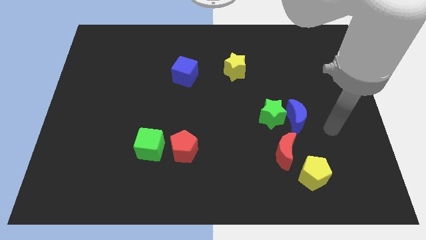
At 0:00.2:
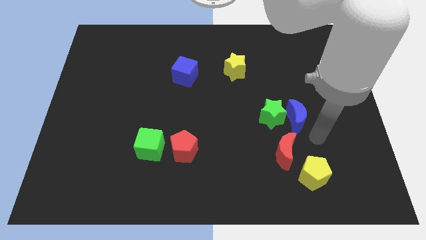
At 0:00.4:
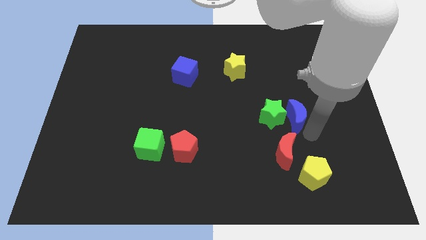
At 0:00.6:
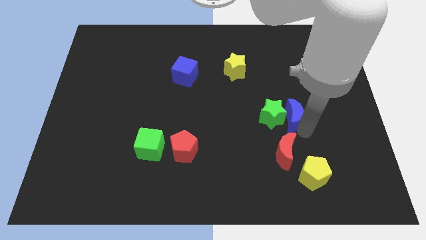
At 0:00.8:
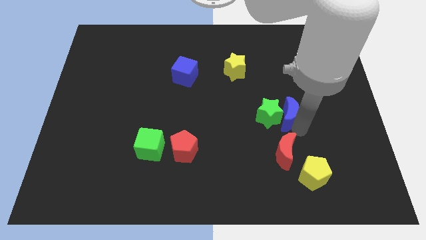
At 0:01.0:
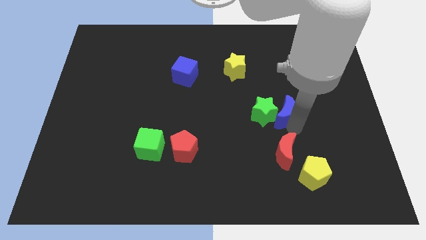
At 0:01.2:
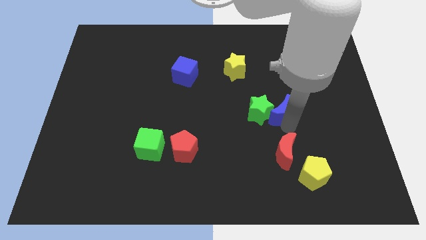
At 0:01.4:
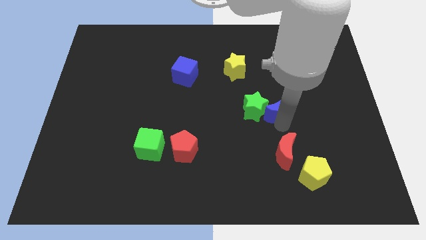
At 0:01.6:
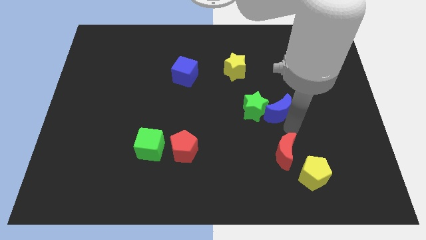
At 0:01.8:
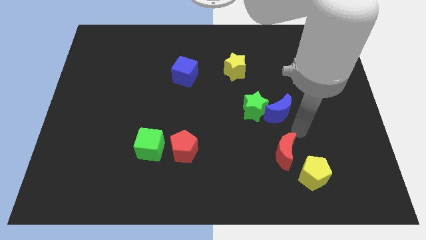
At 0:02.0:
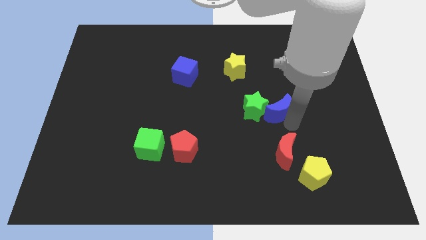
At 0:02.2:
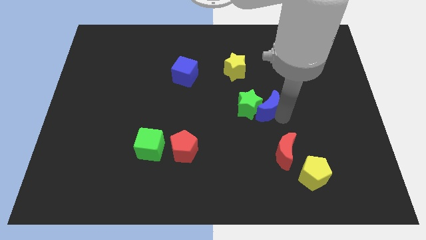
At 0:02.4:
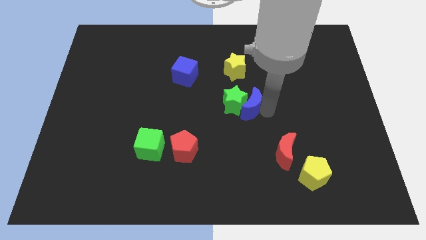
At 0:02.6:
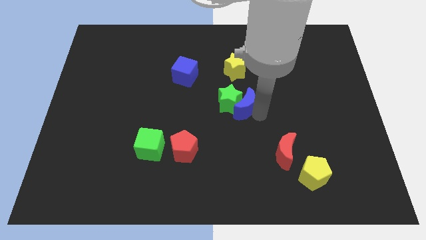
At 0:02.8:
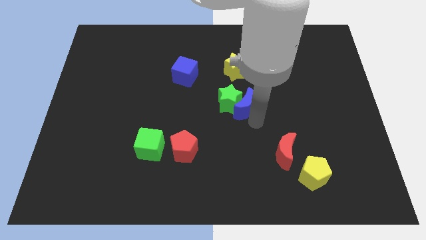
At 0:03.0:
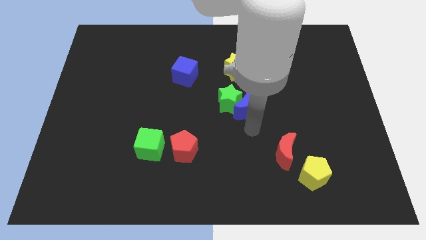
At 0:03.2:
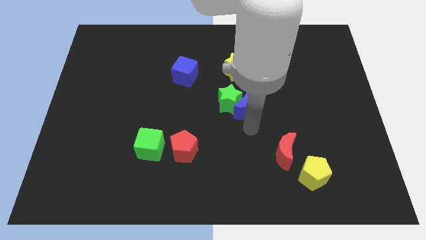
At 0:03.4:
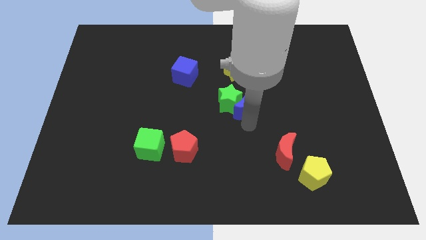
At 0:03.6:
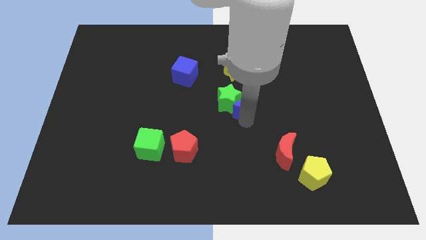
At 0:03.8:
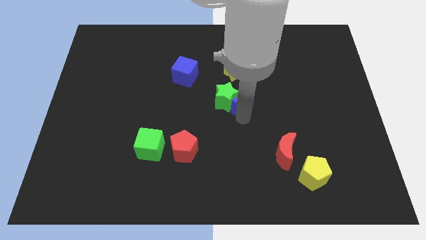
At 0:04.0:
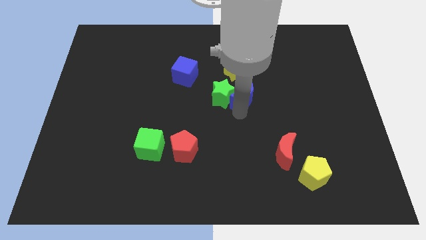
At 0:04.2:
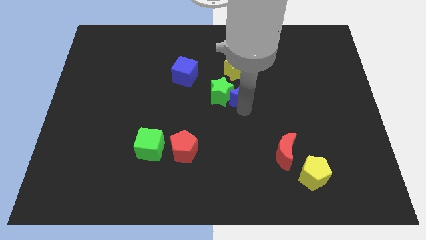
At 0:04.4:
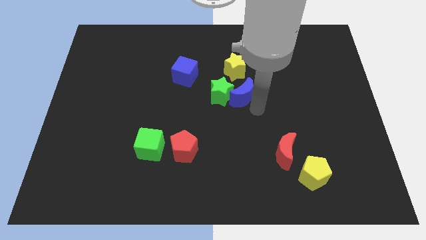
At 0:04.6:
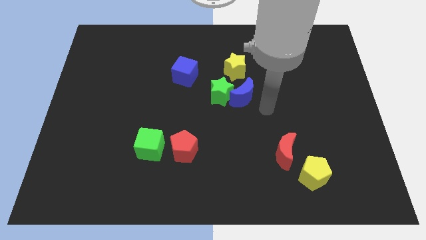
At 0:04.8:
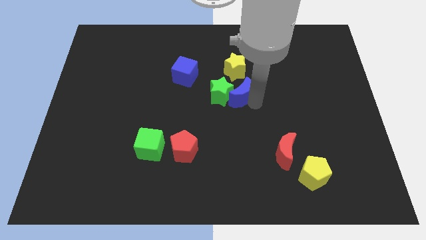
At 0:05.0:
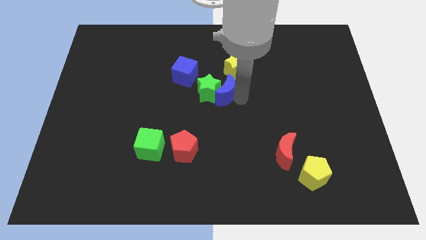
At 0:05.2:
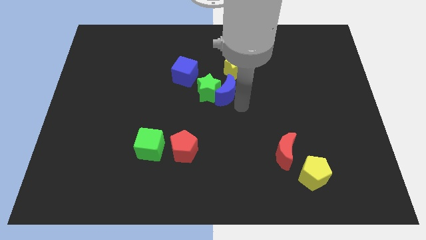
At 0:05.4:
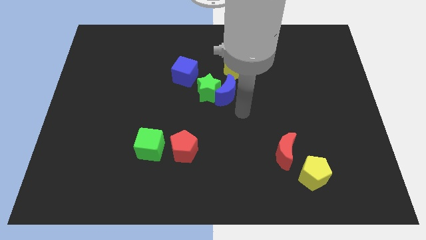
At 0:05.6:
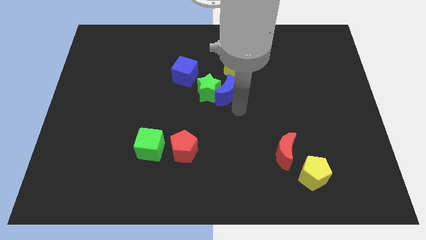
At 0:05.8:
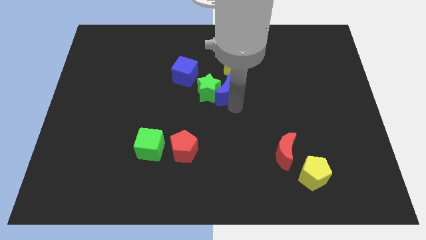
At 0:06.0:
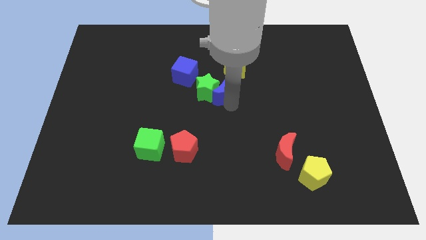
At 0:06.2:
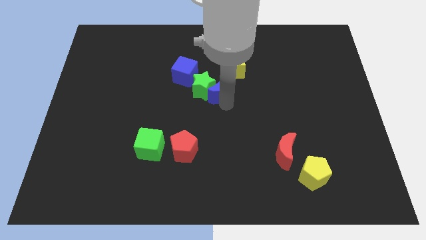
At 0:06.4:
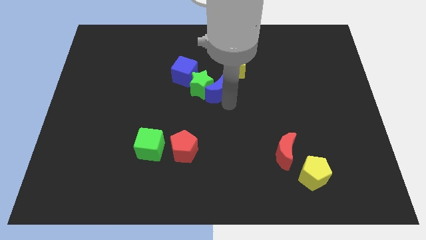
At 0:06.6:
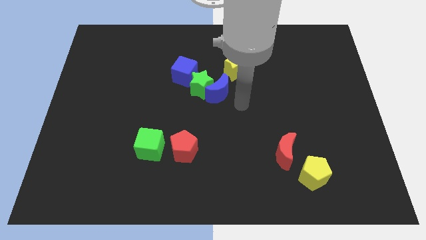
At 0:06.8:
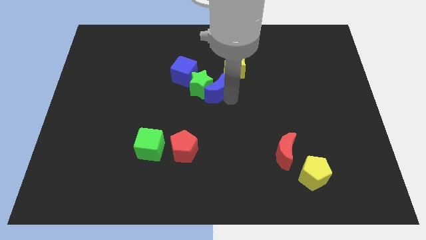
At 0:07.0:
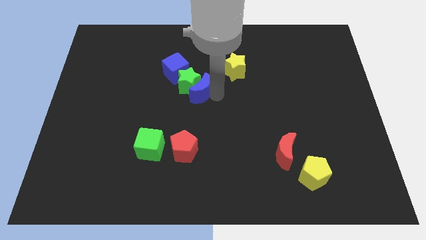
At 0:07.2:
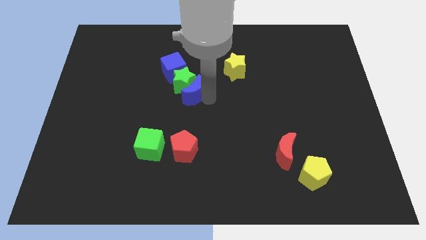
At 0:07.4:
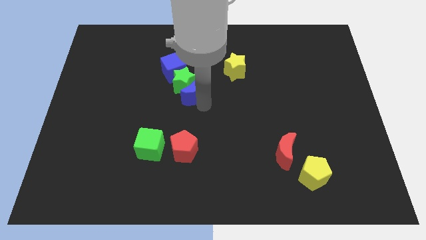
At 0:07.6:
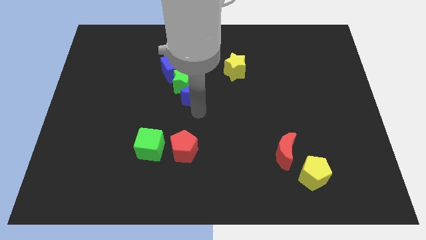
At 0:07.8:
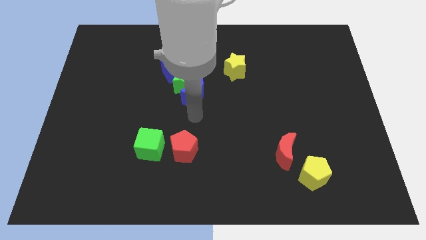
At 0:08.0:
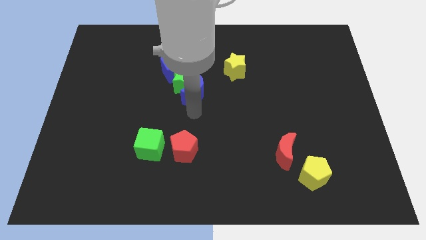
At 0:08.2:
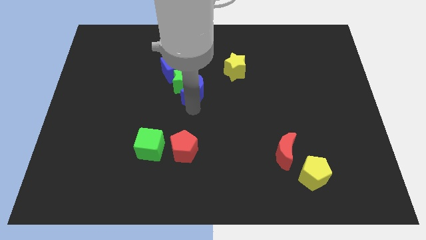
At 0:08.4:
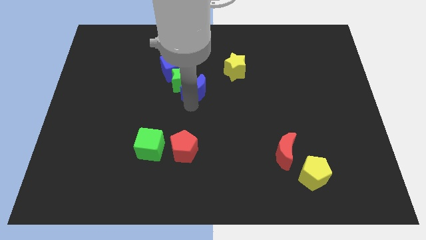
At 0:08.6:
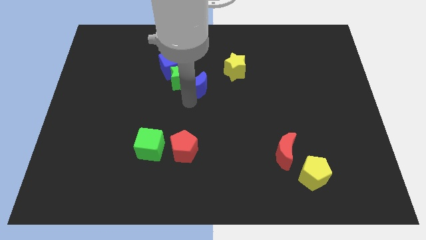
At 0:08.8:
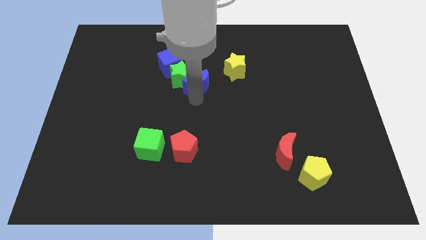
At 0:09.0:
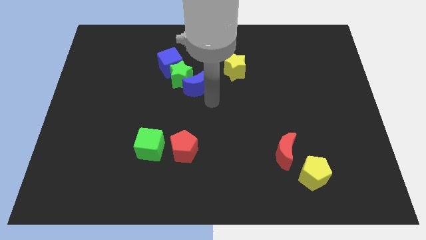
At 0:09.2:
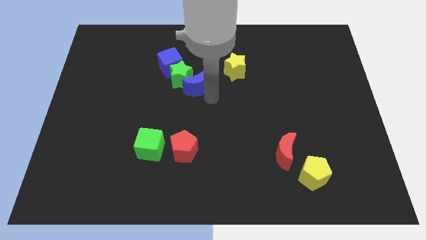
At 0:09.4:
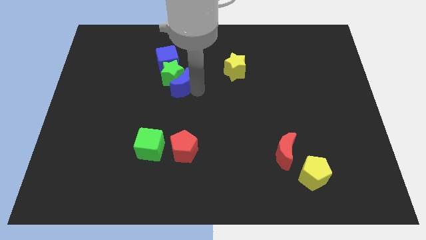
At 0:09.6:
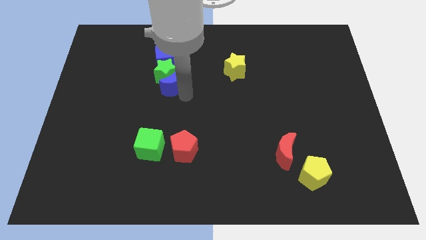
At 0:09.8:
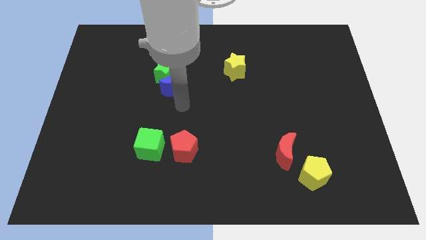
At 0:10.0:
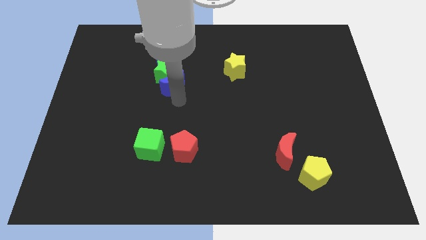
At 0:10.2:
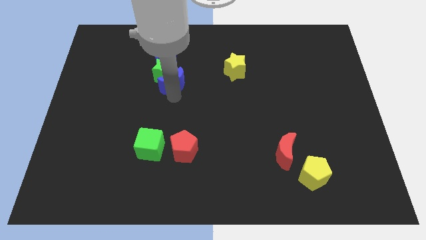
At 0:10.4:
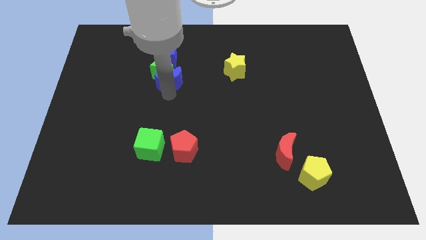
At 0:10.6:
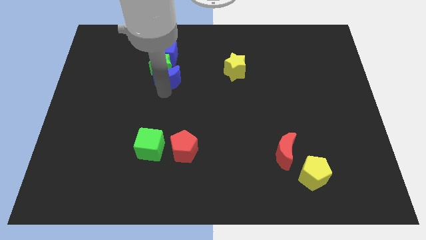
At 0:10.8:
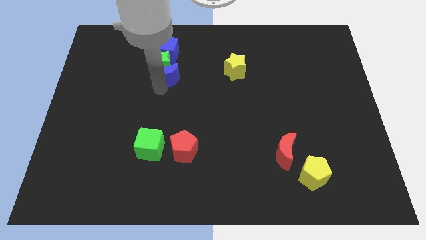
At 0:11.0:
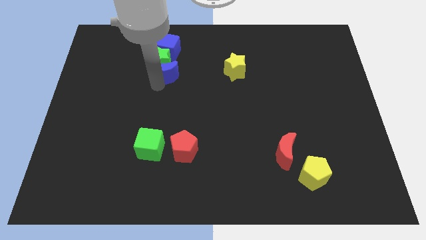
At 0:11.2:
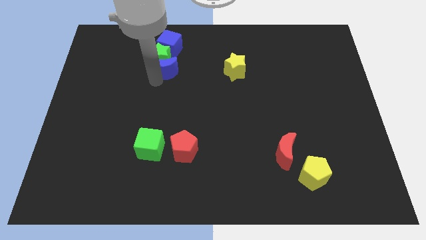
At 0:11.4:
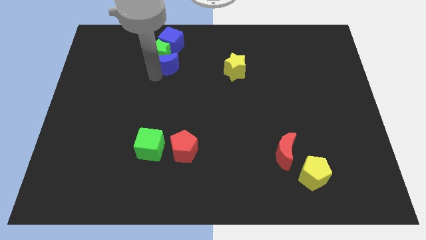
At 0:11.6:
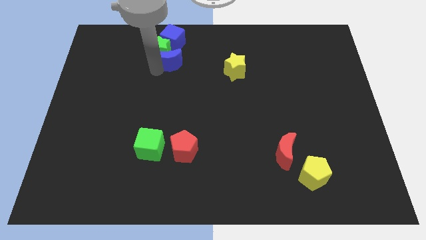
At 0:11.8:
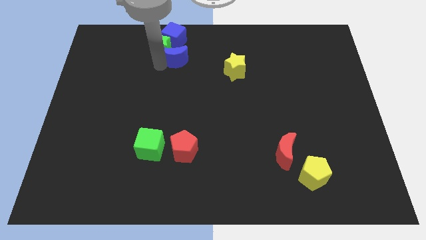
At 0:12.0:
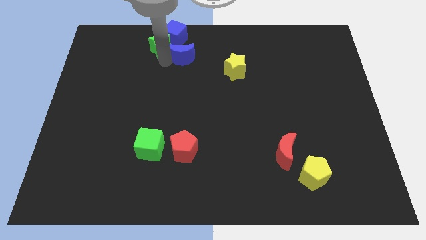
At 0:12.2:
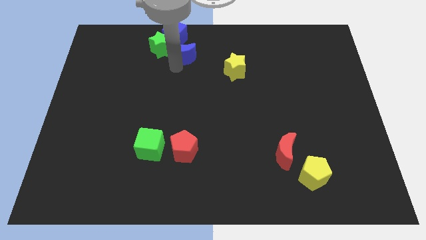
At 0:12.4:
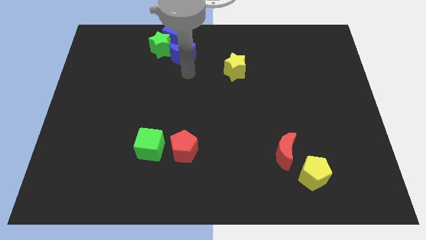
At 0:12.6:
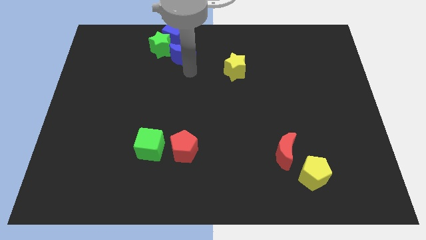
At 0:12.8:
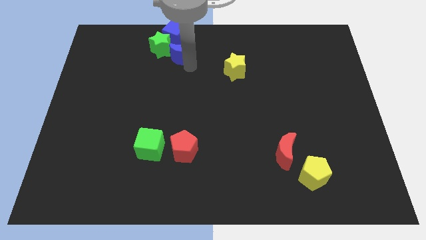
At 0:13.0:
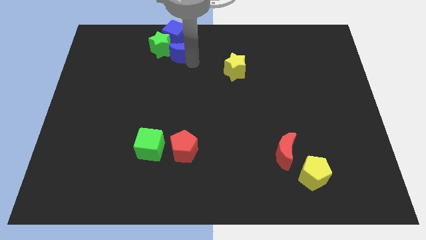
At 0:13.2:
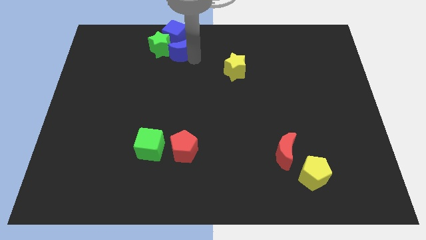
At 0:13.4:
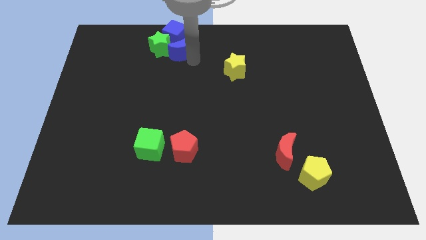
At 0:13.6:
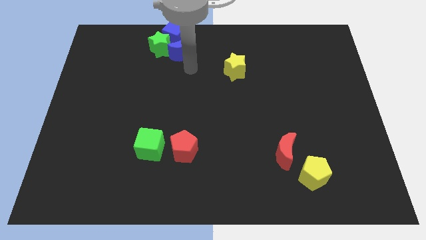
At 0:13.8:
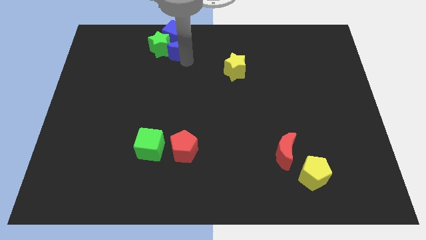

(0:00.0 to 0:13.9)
push the blue moon to the blue cube

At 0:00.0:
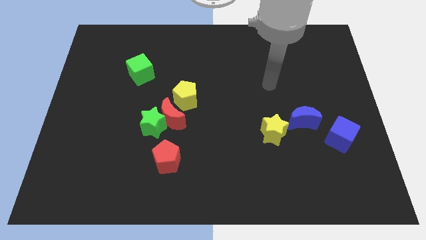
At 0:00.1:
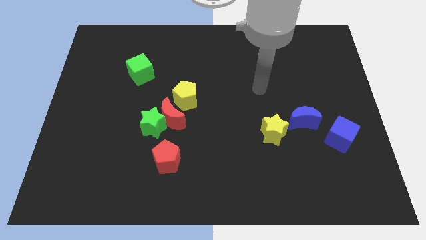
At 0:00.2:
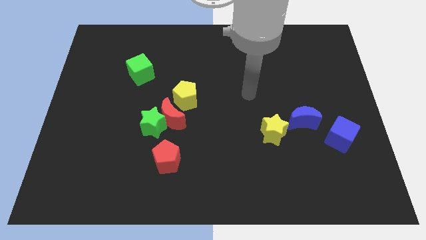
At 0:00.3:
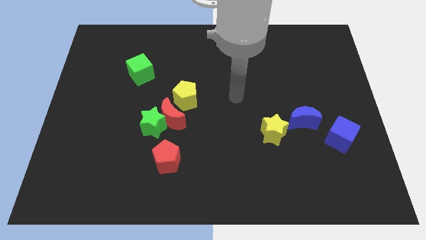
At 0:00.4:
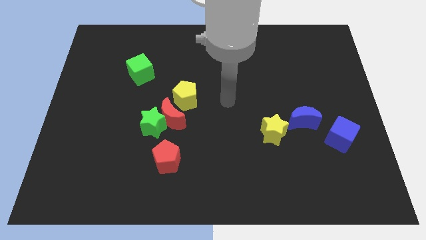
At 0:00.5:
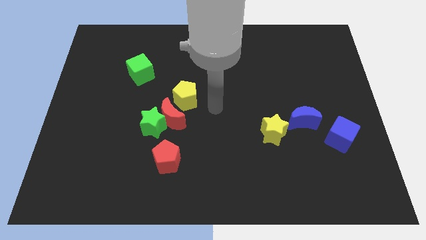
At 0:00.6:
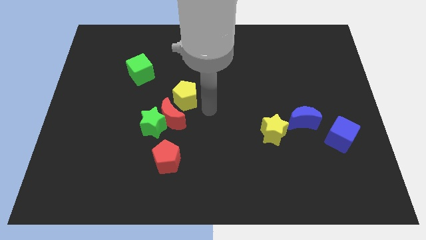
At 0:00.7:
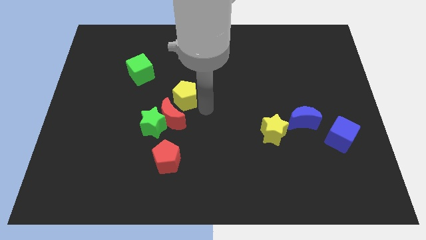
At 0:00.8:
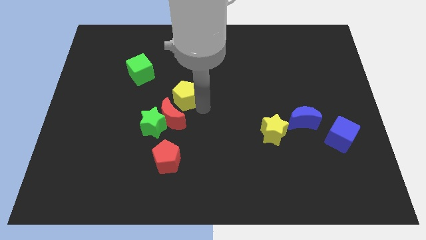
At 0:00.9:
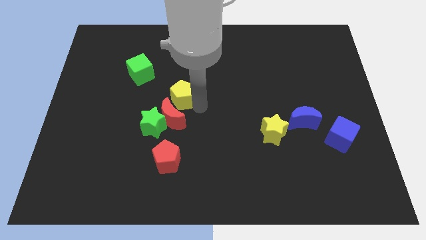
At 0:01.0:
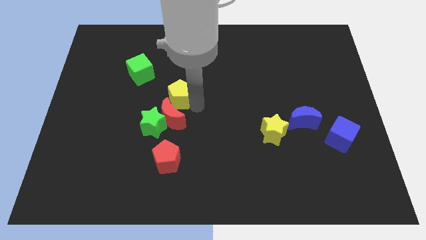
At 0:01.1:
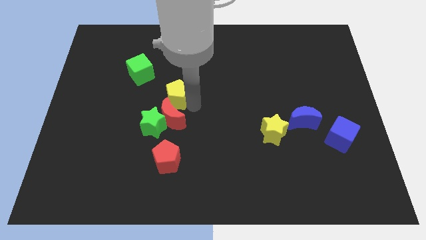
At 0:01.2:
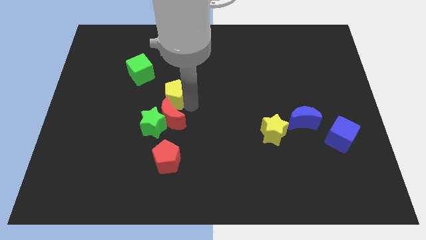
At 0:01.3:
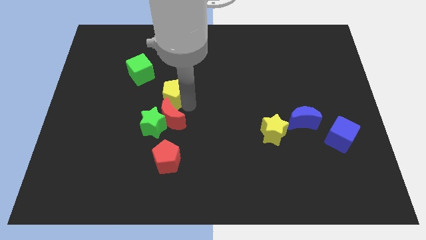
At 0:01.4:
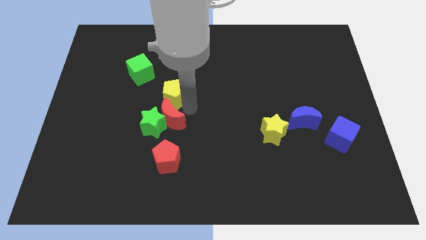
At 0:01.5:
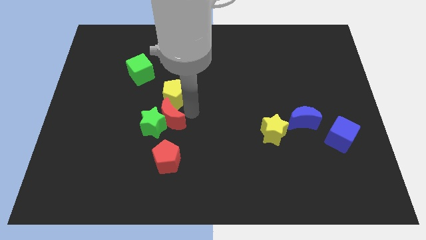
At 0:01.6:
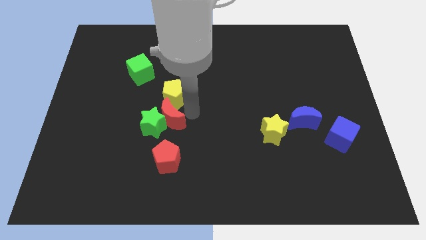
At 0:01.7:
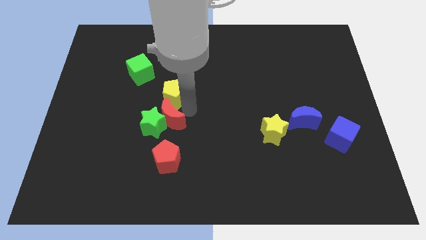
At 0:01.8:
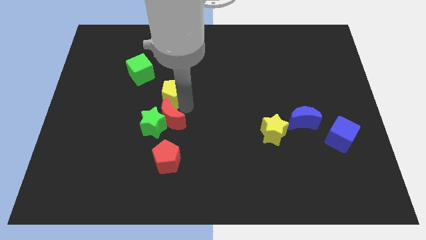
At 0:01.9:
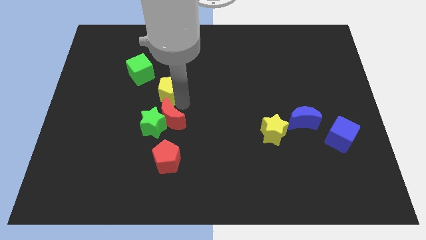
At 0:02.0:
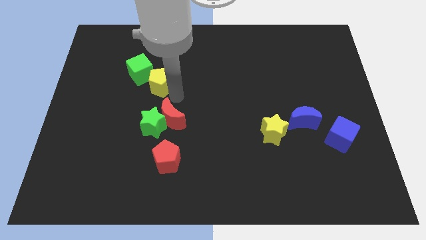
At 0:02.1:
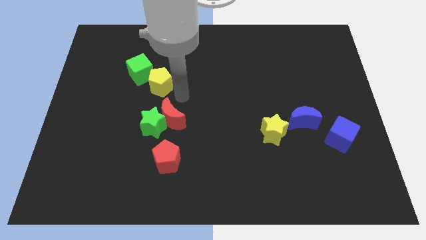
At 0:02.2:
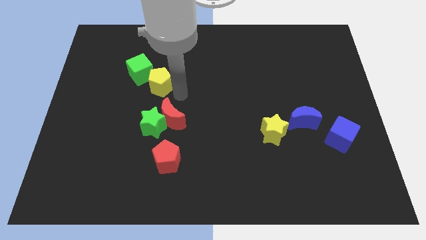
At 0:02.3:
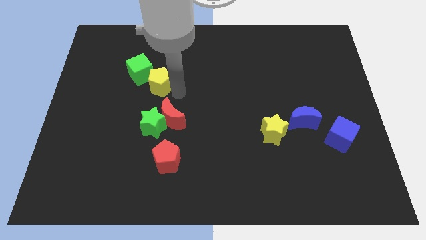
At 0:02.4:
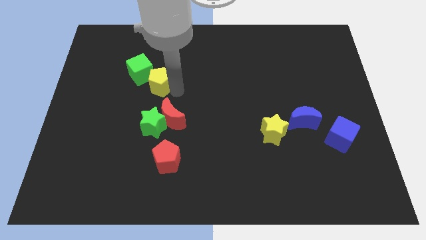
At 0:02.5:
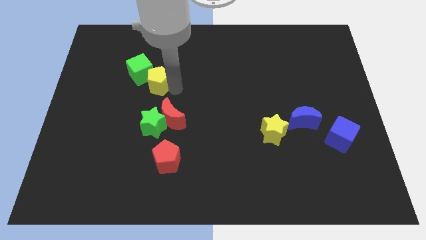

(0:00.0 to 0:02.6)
move the yellow pentagon close to the green cube
